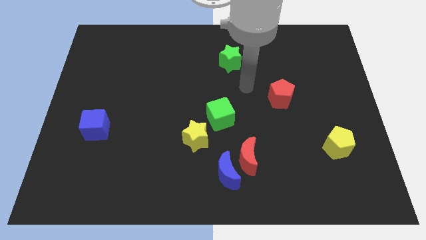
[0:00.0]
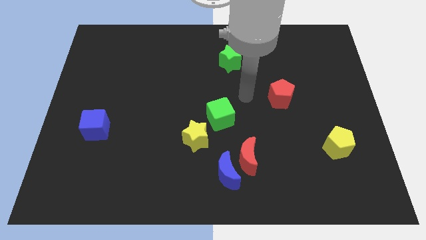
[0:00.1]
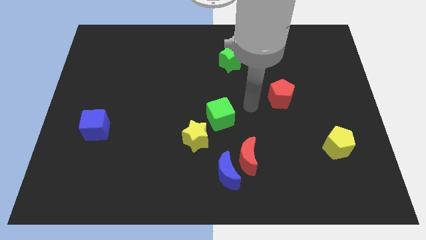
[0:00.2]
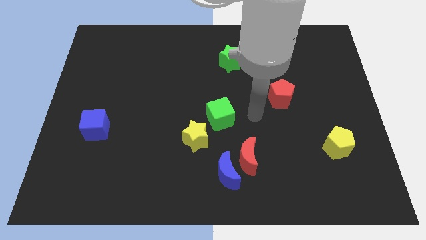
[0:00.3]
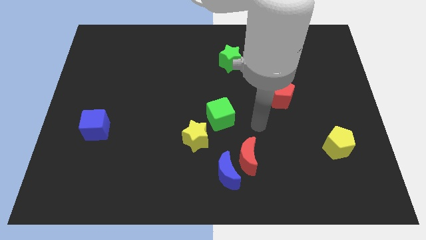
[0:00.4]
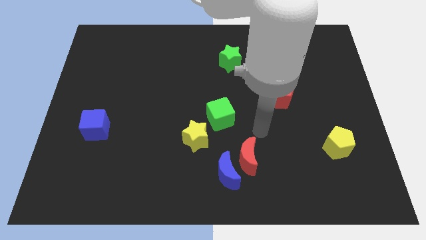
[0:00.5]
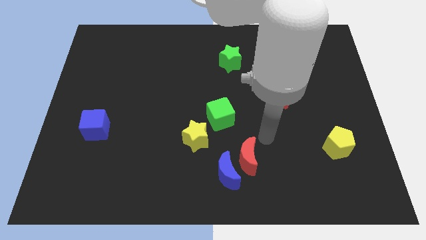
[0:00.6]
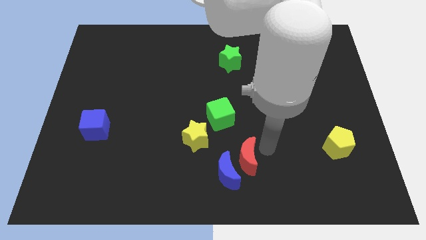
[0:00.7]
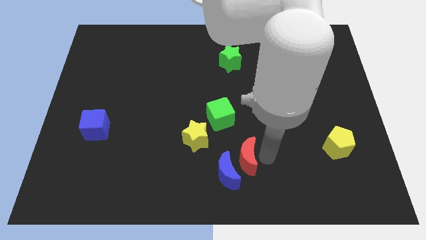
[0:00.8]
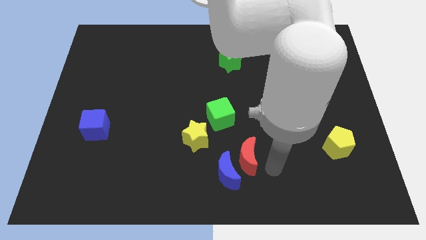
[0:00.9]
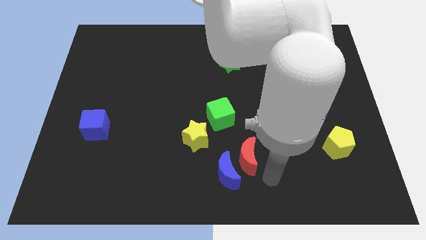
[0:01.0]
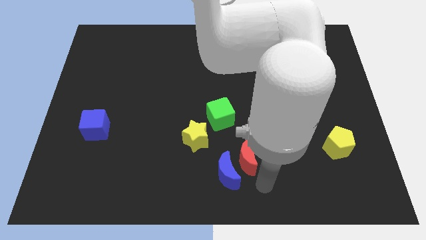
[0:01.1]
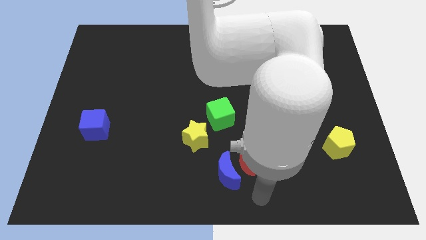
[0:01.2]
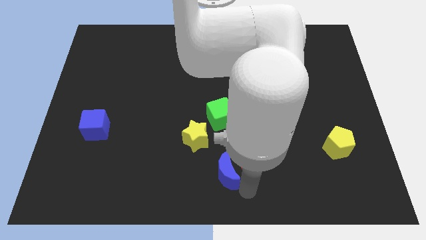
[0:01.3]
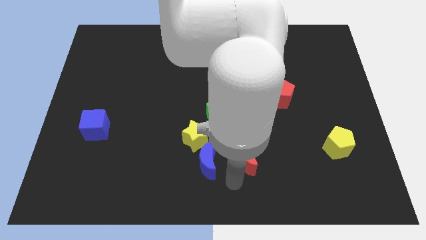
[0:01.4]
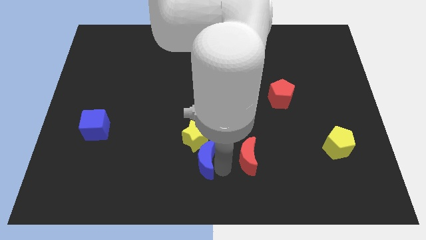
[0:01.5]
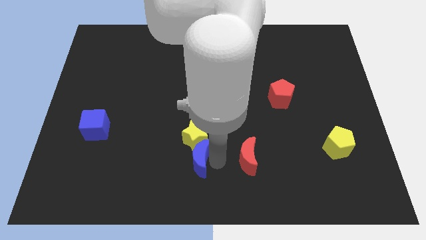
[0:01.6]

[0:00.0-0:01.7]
move the red moon away from the blue moon

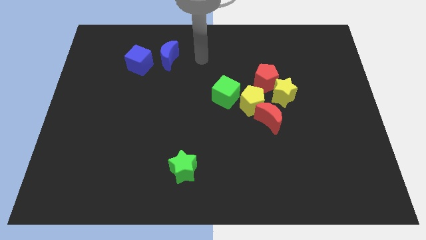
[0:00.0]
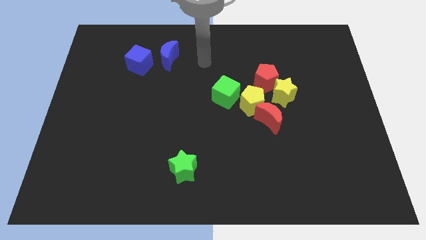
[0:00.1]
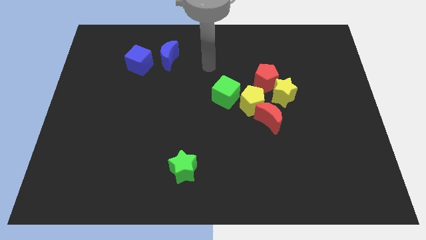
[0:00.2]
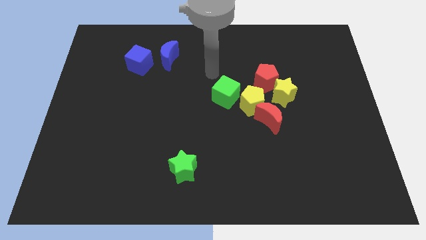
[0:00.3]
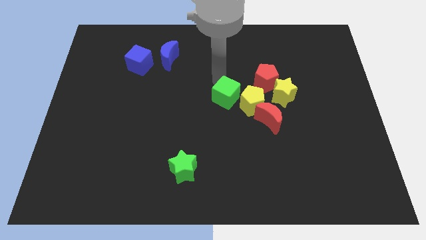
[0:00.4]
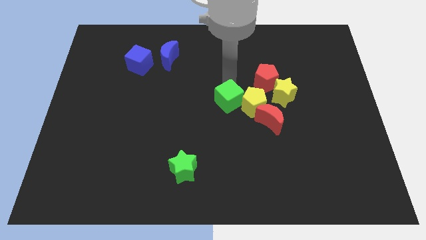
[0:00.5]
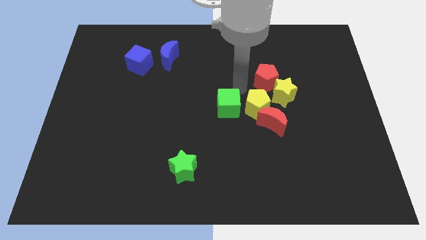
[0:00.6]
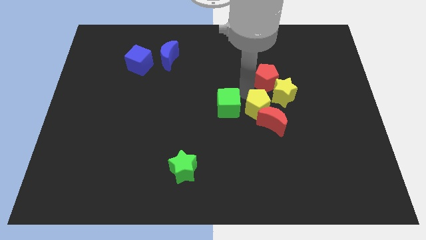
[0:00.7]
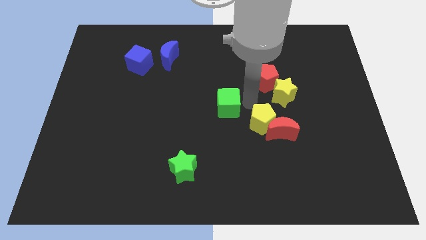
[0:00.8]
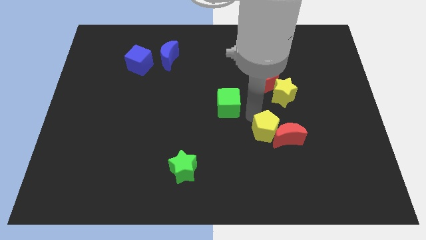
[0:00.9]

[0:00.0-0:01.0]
pull the green cube apart from the yellow pentagon

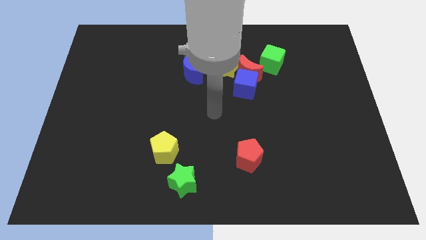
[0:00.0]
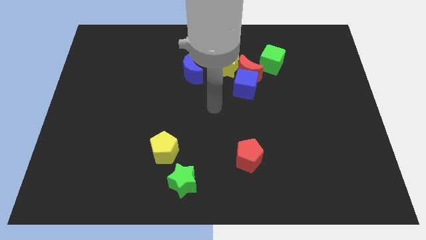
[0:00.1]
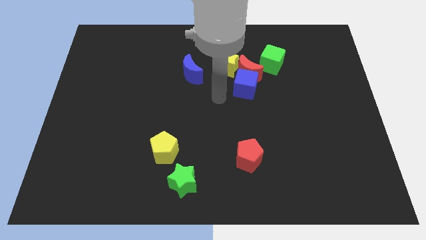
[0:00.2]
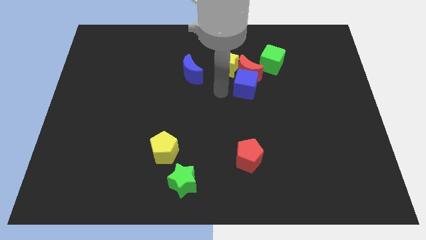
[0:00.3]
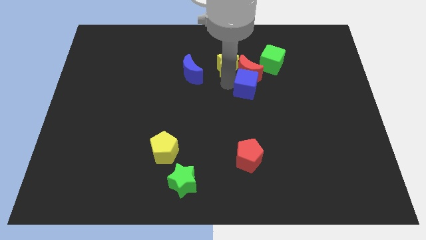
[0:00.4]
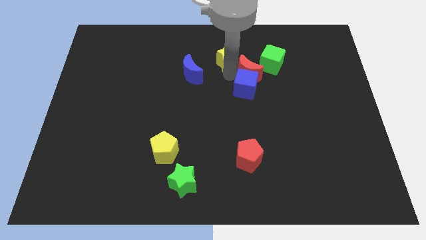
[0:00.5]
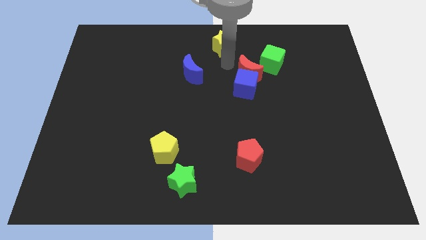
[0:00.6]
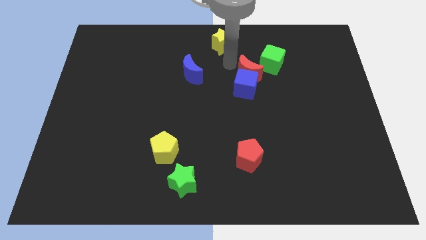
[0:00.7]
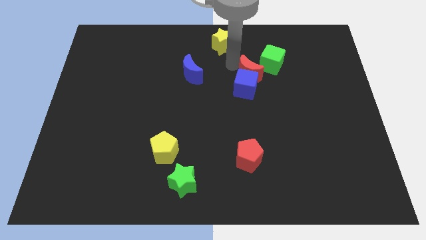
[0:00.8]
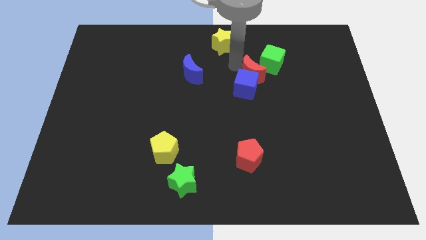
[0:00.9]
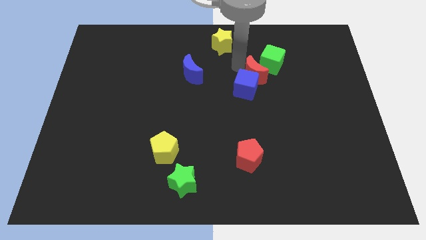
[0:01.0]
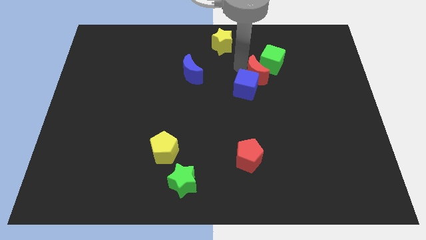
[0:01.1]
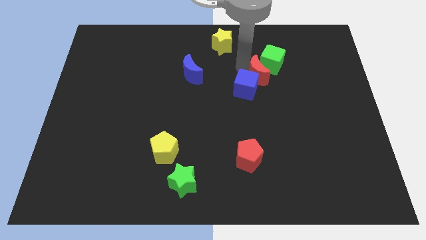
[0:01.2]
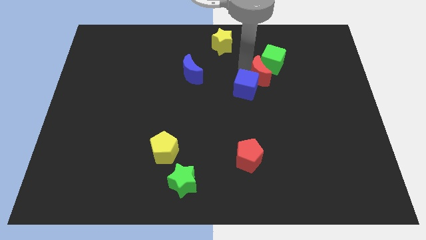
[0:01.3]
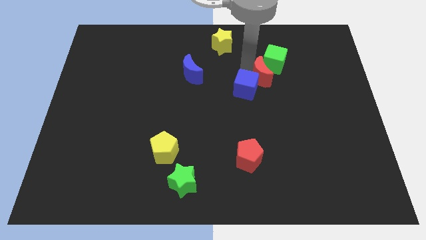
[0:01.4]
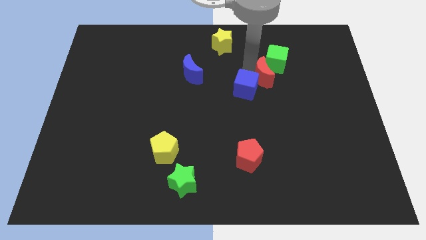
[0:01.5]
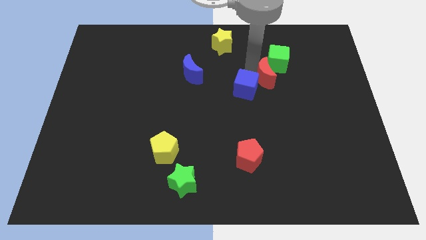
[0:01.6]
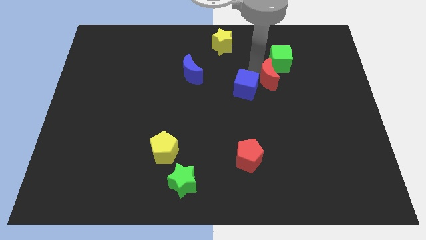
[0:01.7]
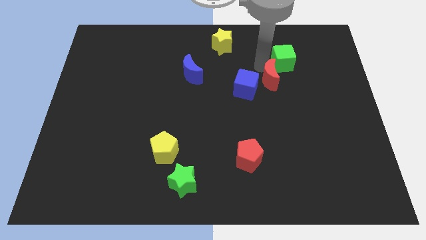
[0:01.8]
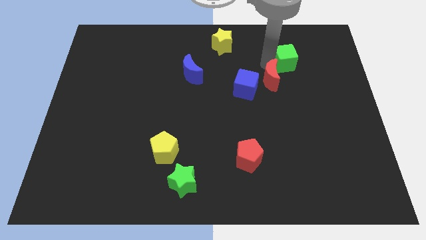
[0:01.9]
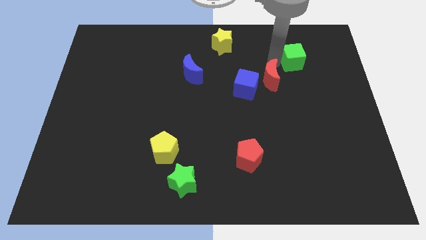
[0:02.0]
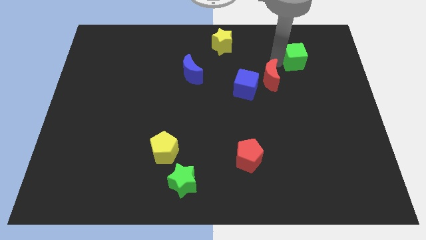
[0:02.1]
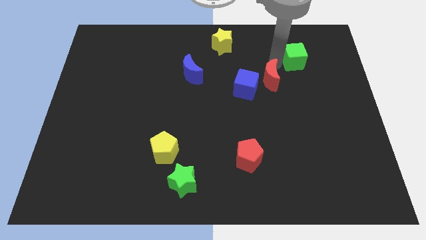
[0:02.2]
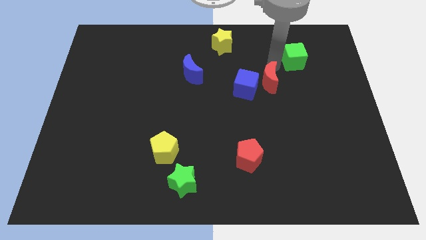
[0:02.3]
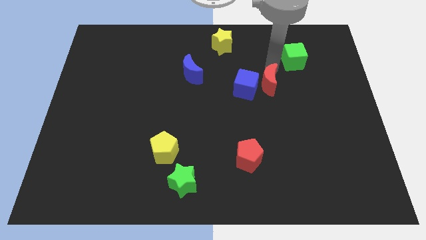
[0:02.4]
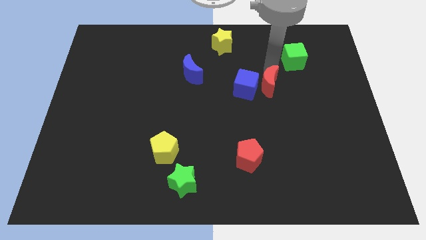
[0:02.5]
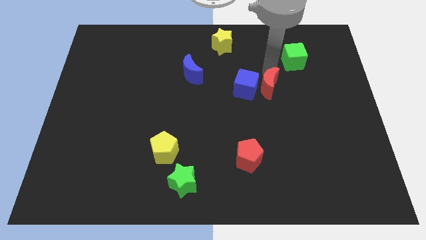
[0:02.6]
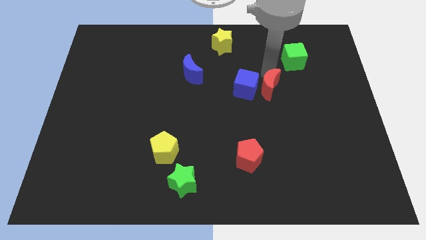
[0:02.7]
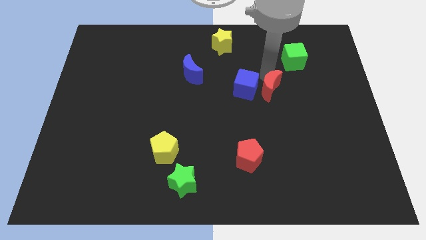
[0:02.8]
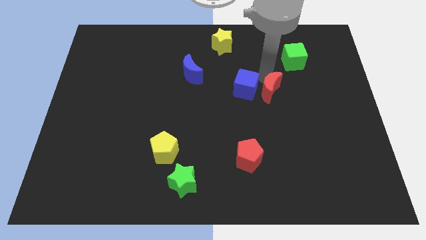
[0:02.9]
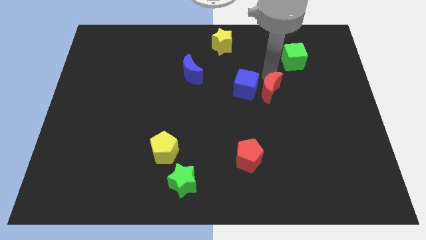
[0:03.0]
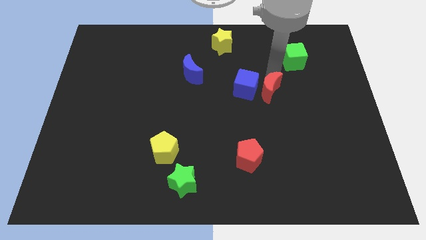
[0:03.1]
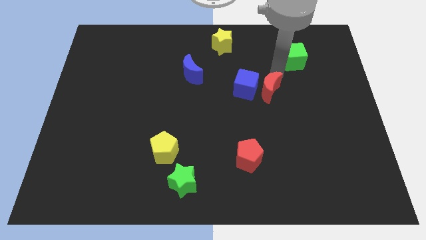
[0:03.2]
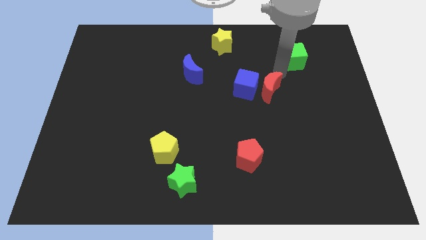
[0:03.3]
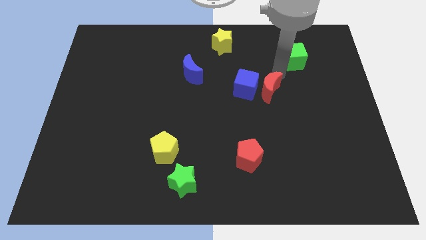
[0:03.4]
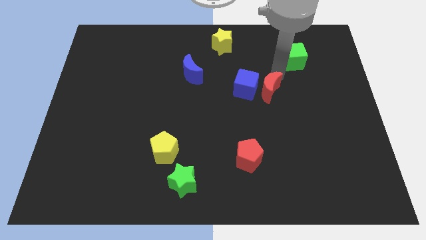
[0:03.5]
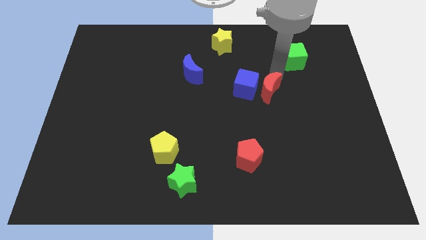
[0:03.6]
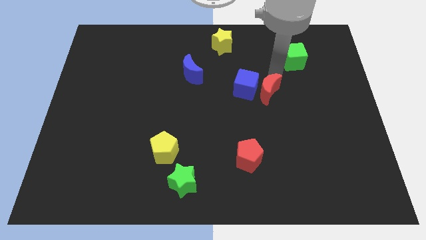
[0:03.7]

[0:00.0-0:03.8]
separate the red moon from the blue cube, yellow star, and green cube

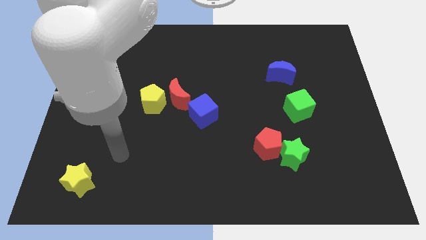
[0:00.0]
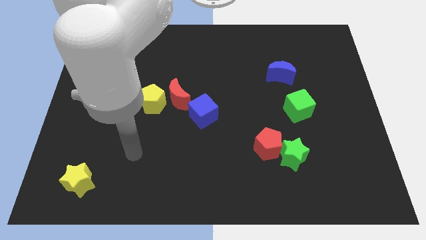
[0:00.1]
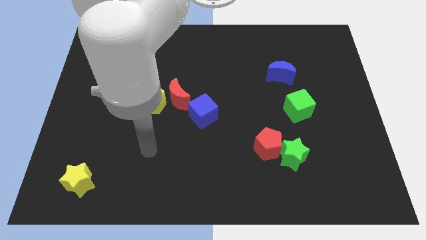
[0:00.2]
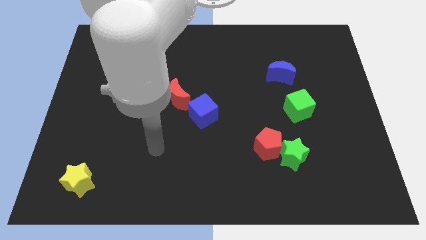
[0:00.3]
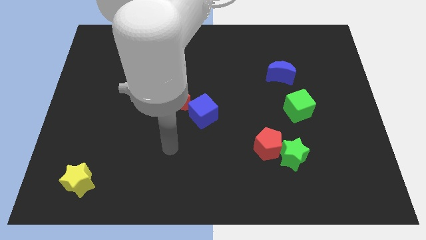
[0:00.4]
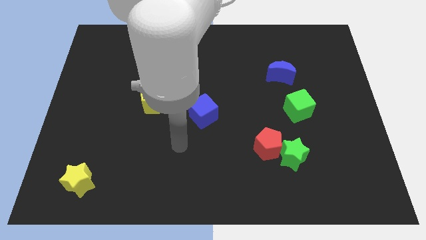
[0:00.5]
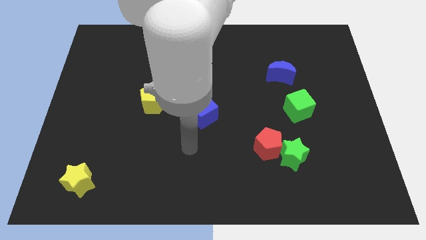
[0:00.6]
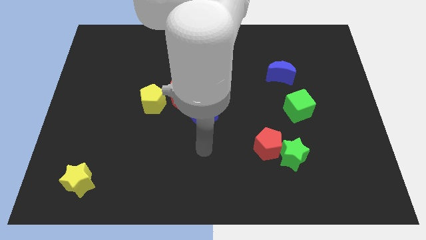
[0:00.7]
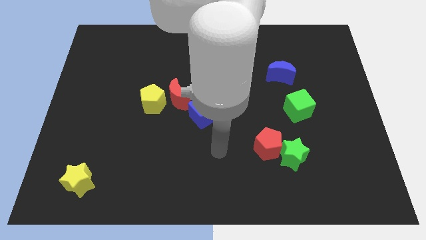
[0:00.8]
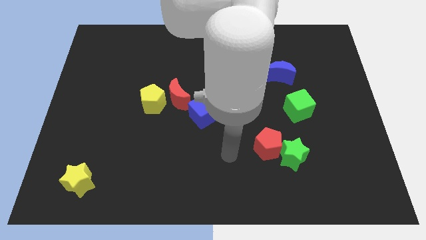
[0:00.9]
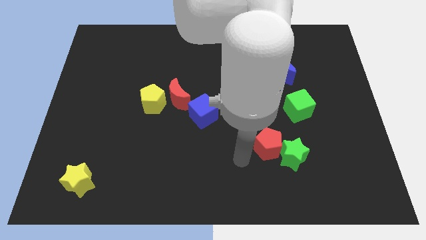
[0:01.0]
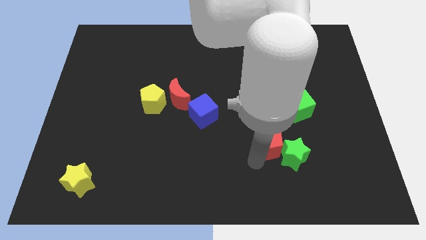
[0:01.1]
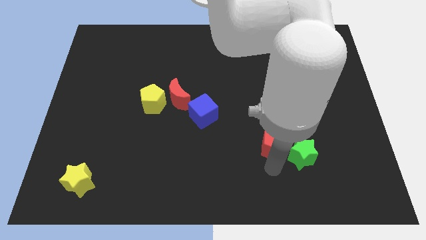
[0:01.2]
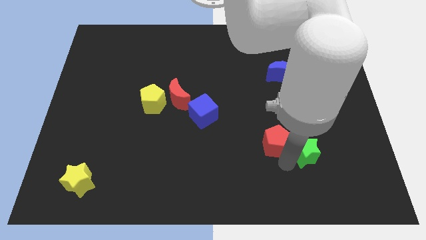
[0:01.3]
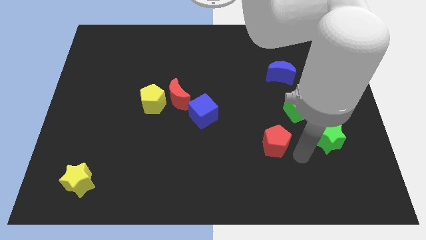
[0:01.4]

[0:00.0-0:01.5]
separate the red pentagon from the green star

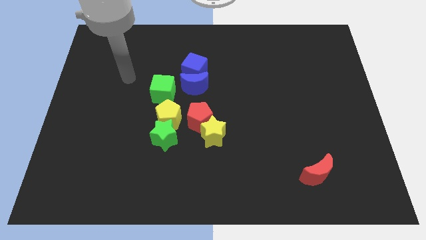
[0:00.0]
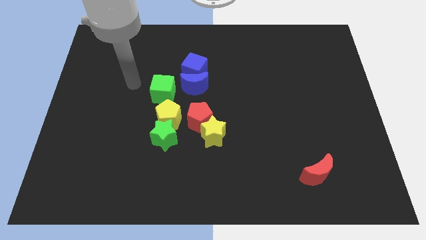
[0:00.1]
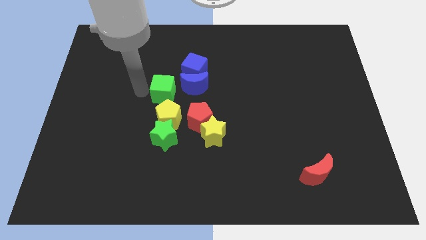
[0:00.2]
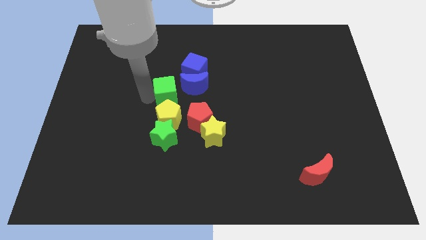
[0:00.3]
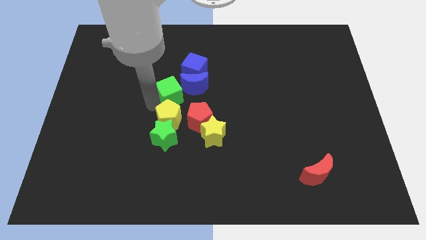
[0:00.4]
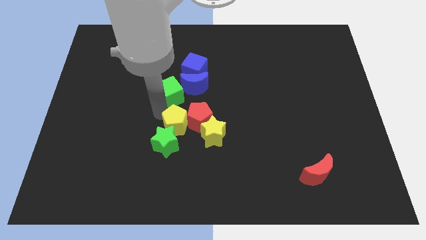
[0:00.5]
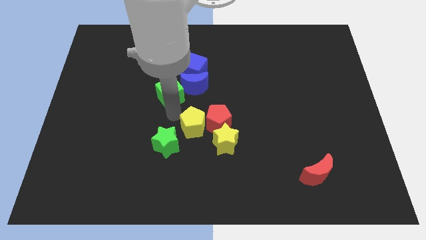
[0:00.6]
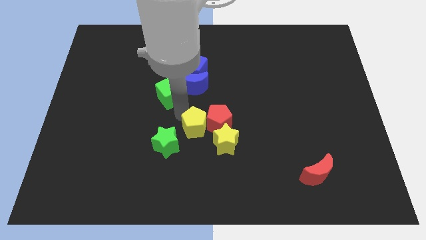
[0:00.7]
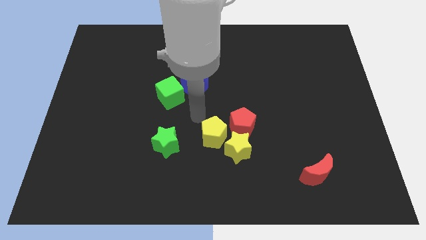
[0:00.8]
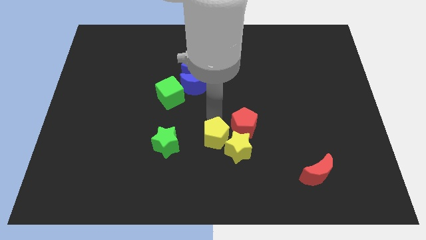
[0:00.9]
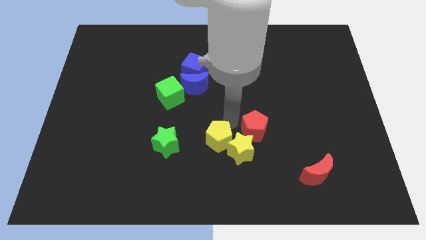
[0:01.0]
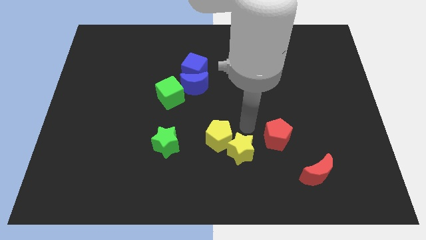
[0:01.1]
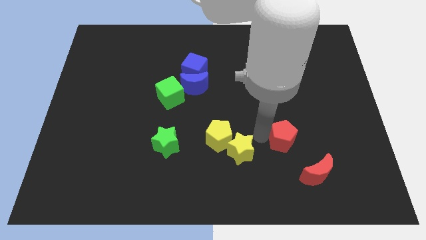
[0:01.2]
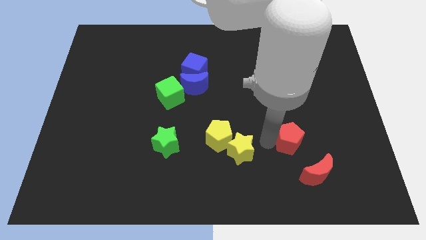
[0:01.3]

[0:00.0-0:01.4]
pull the yellow star apart from the red pentagon
